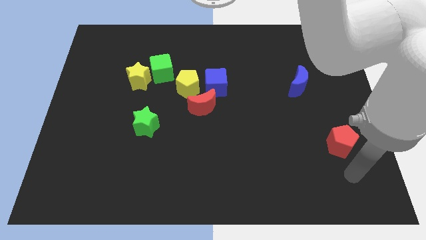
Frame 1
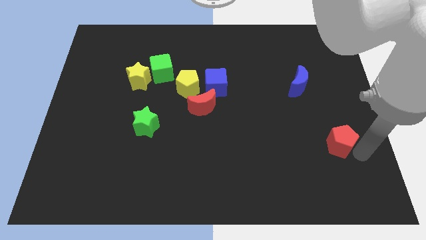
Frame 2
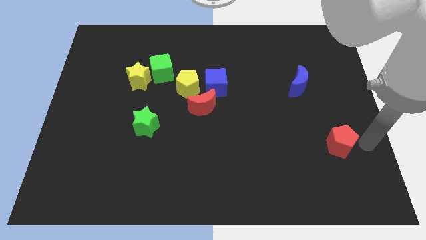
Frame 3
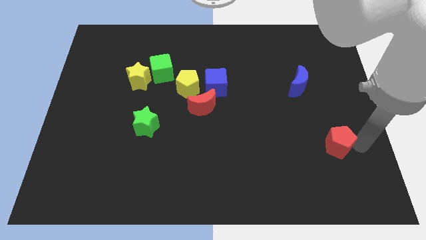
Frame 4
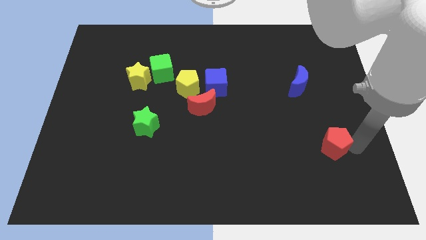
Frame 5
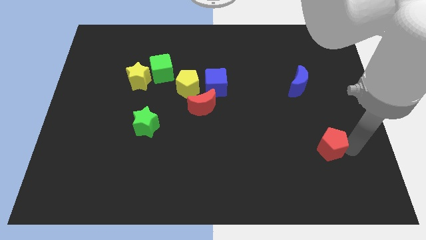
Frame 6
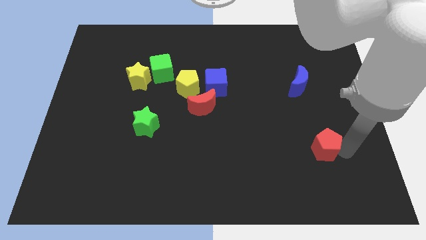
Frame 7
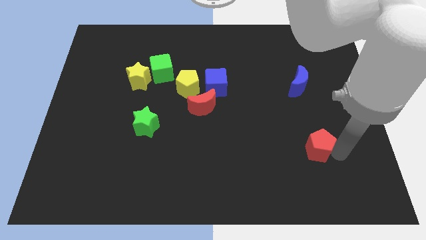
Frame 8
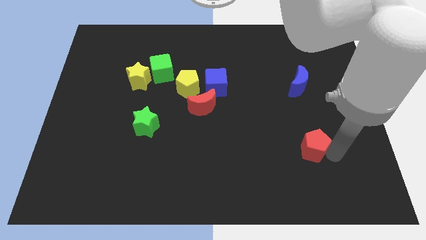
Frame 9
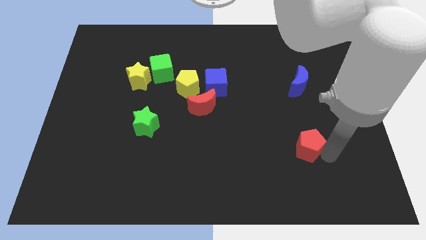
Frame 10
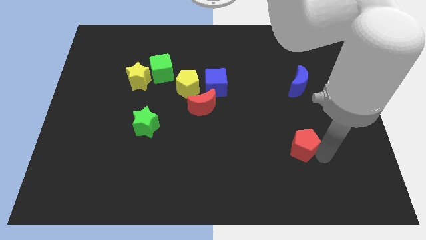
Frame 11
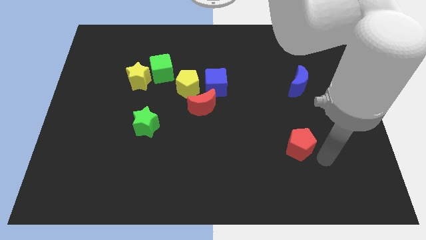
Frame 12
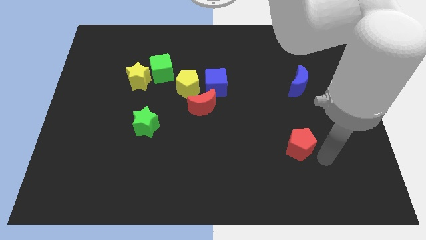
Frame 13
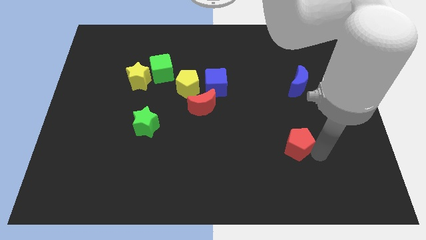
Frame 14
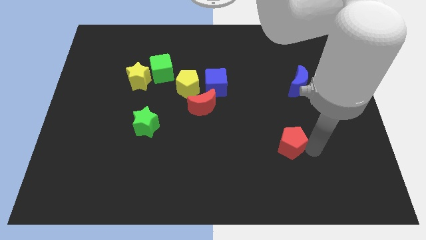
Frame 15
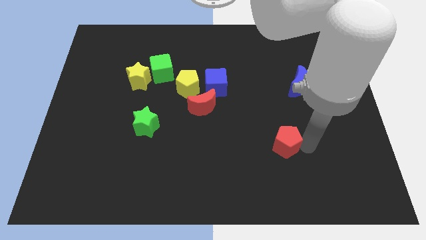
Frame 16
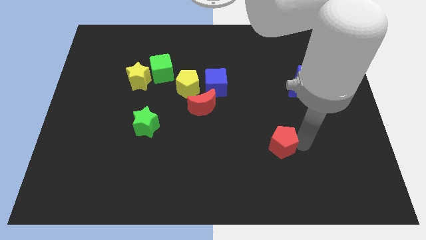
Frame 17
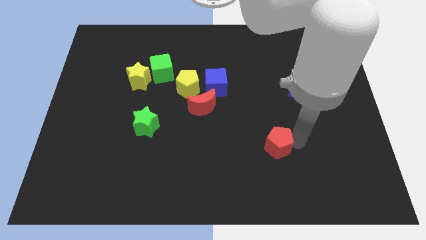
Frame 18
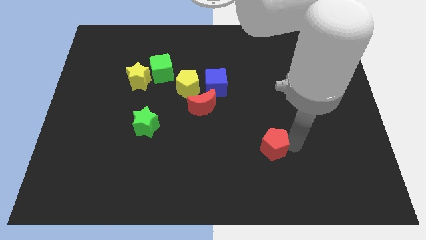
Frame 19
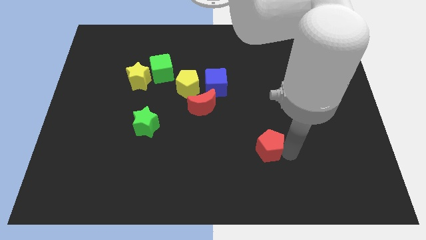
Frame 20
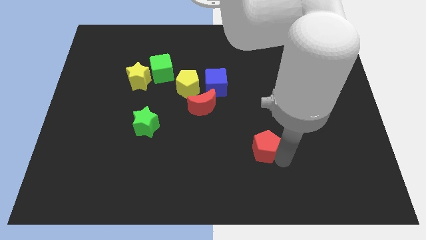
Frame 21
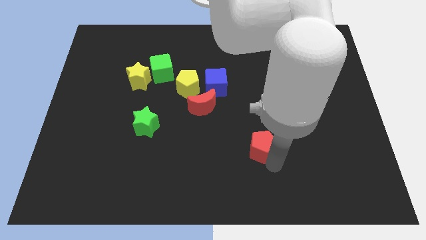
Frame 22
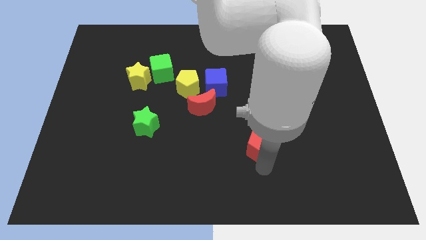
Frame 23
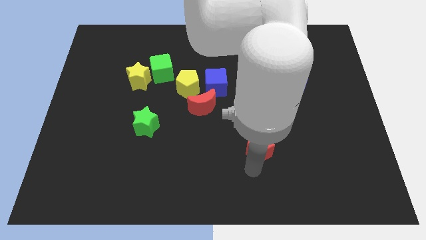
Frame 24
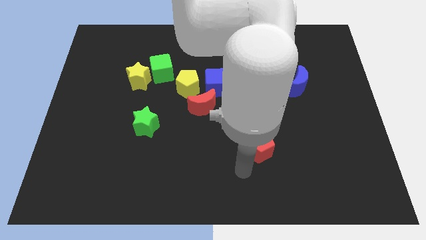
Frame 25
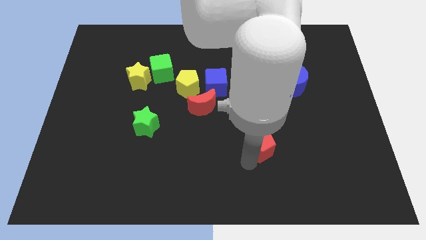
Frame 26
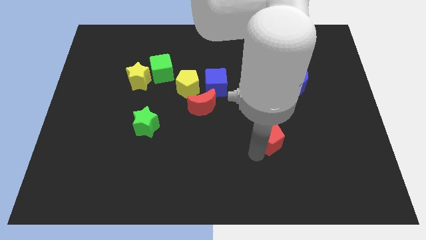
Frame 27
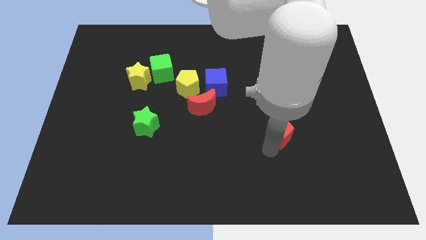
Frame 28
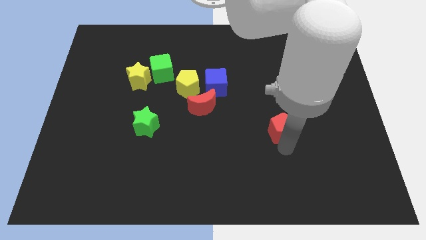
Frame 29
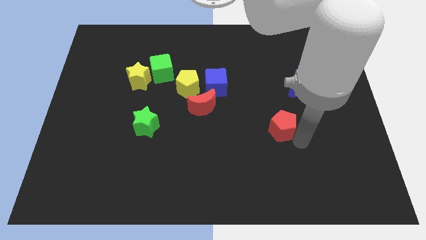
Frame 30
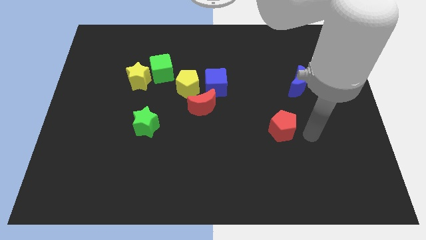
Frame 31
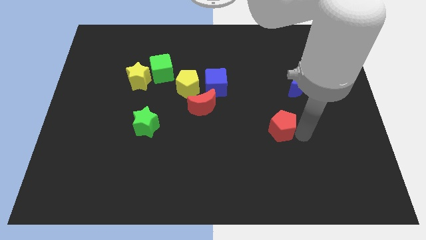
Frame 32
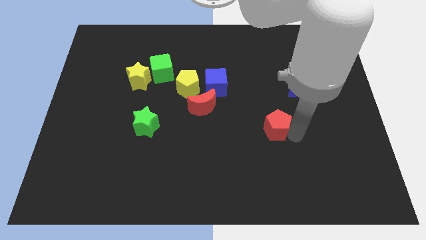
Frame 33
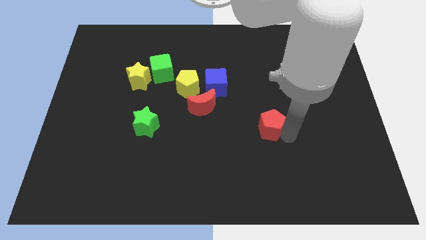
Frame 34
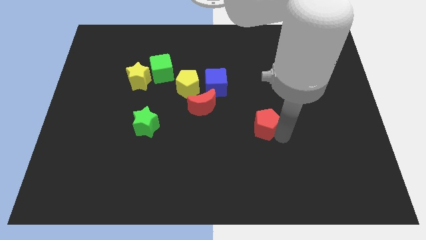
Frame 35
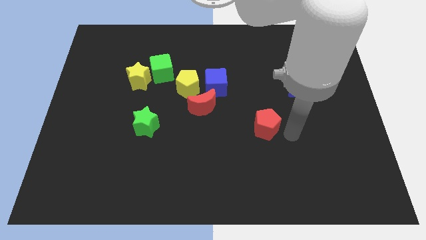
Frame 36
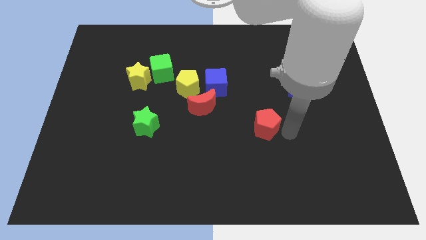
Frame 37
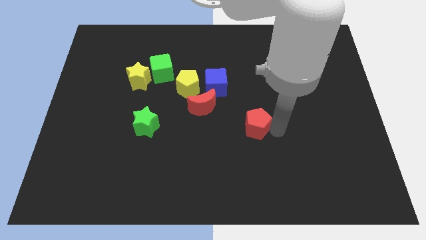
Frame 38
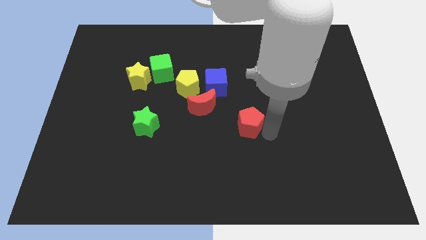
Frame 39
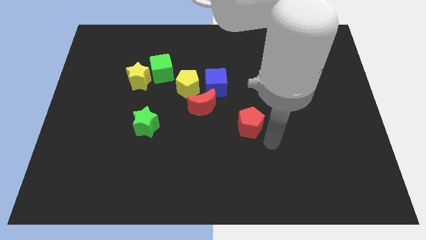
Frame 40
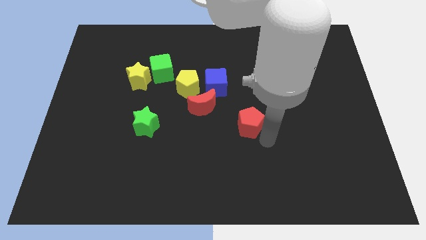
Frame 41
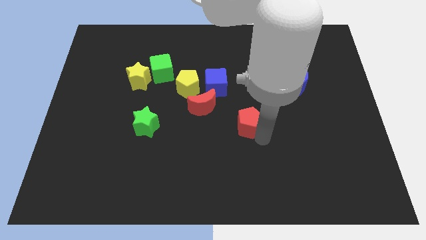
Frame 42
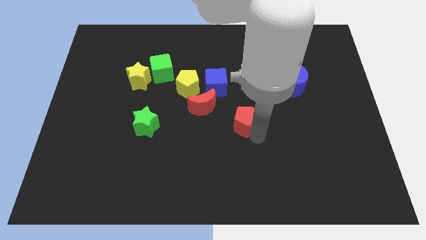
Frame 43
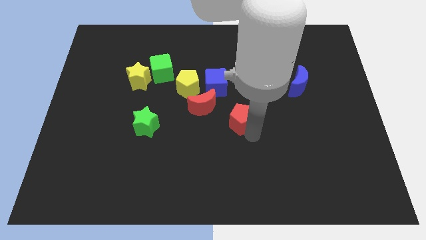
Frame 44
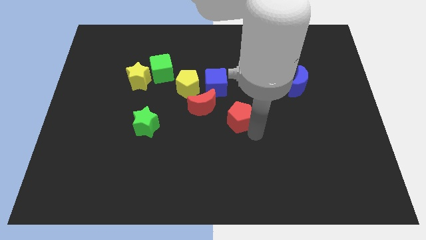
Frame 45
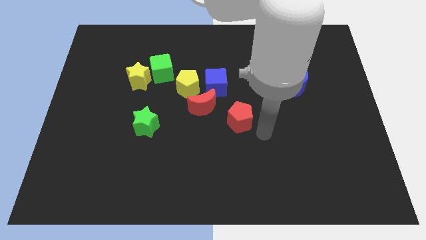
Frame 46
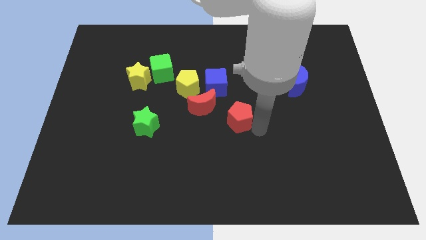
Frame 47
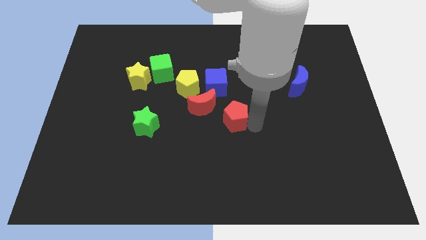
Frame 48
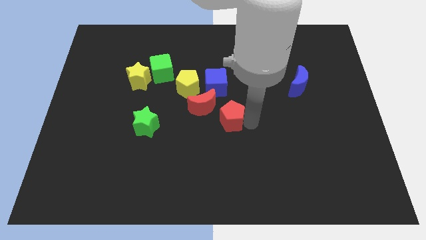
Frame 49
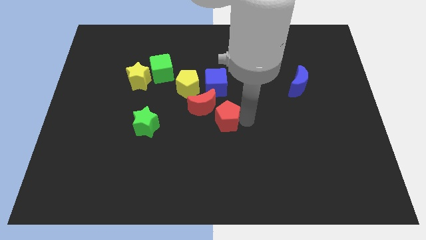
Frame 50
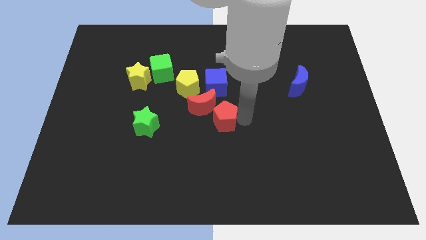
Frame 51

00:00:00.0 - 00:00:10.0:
put the red pentagon next to the red moon

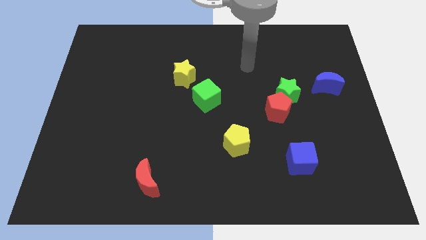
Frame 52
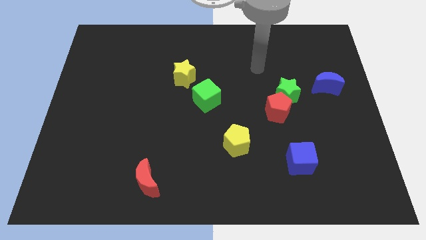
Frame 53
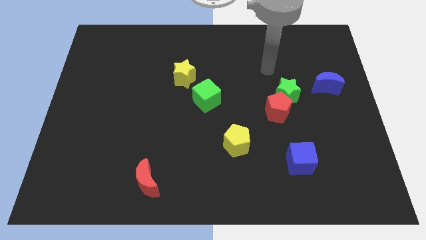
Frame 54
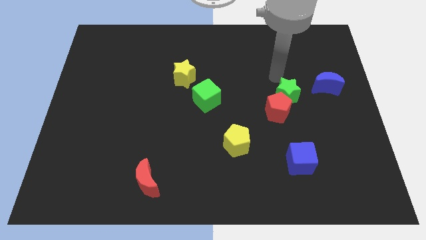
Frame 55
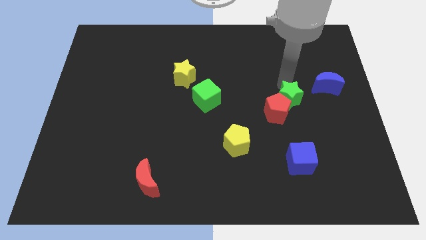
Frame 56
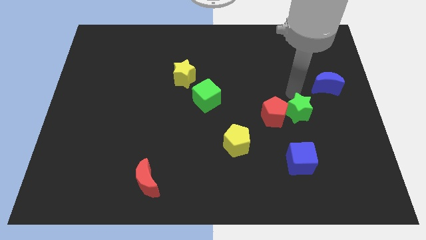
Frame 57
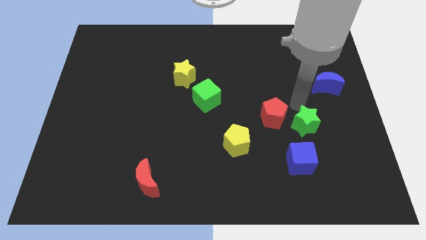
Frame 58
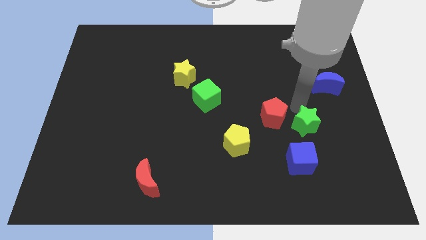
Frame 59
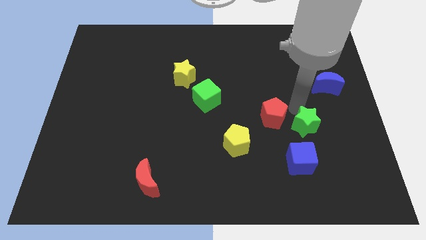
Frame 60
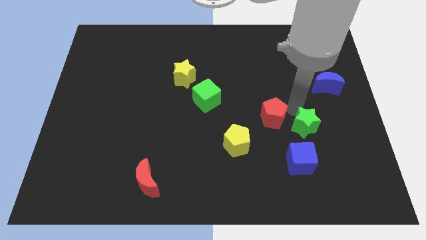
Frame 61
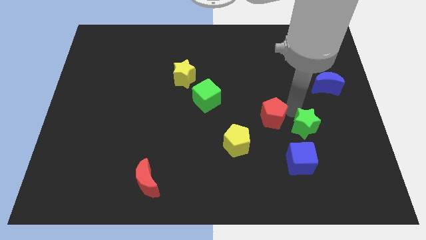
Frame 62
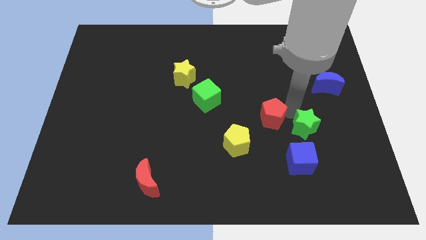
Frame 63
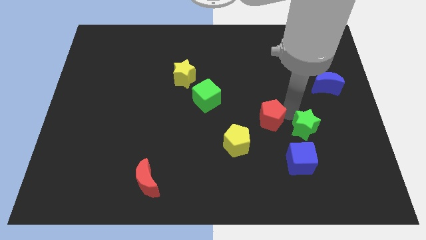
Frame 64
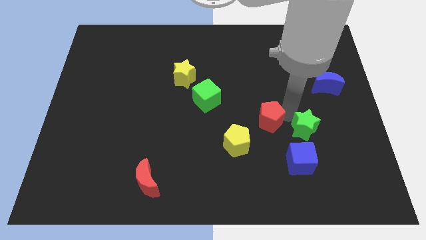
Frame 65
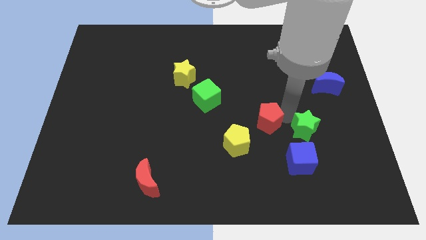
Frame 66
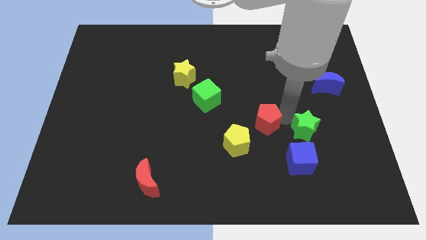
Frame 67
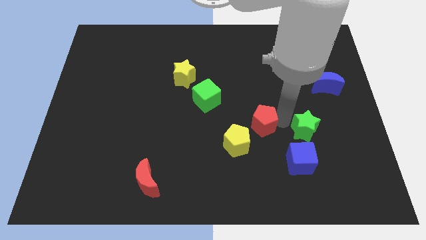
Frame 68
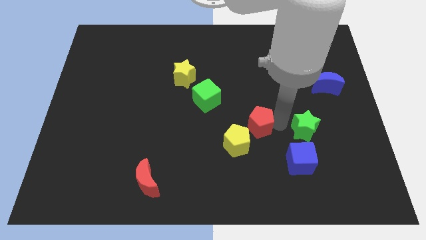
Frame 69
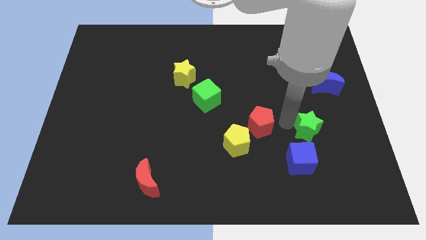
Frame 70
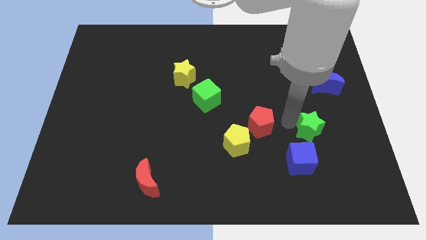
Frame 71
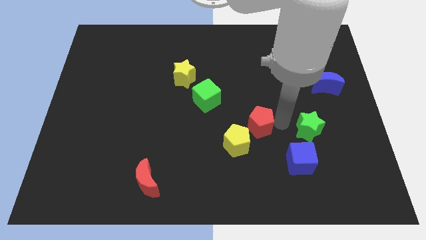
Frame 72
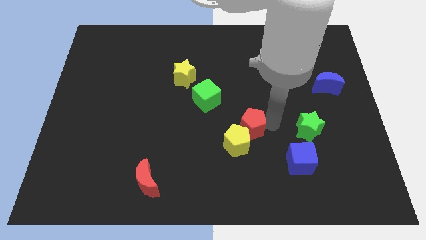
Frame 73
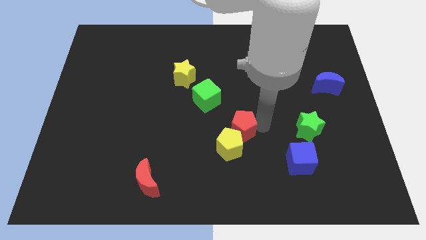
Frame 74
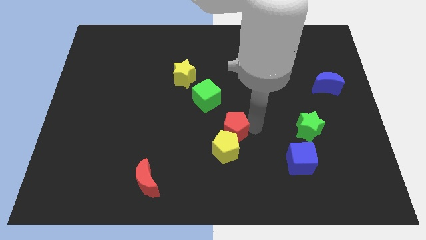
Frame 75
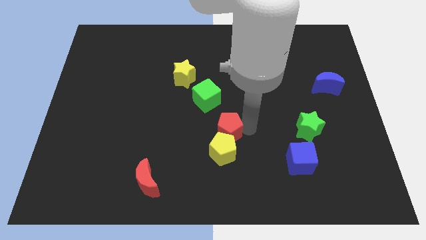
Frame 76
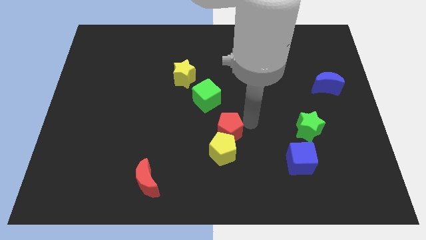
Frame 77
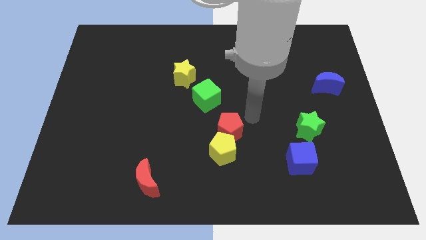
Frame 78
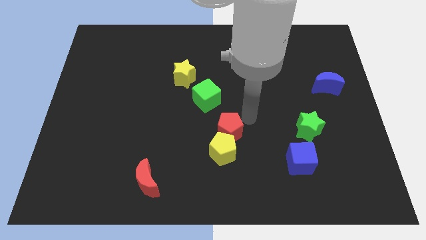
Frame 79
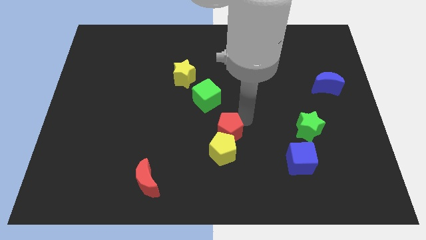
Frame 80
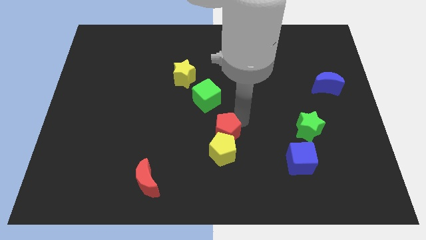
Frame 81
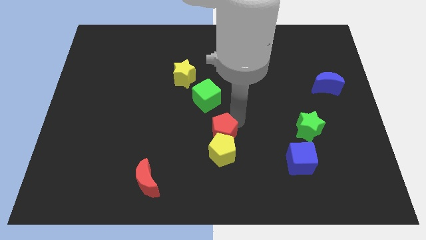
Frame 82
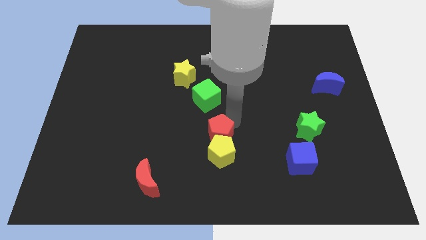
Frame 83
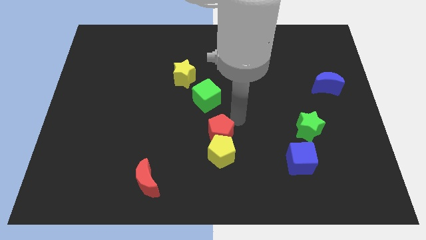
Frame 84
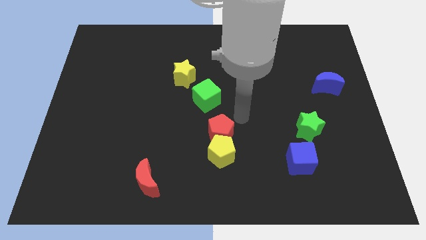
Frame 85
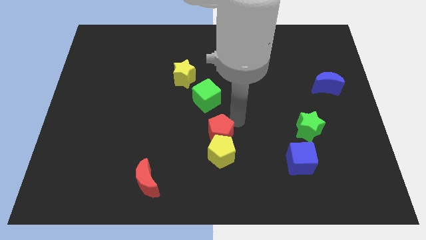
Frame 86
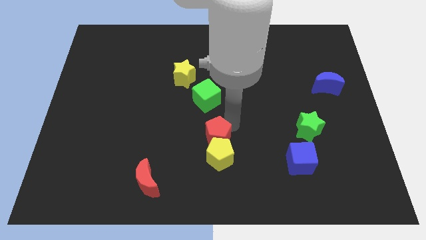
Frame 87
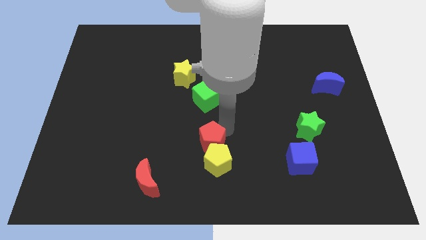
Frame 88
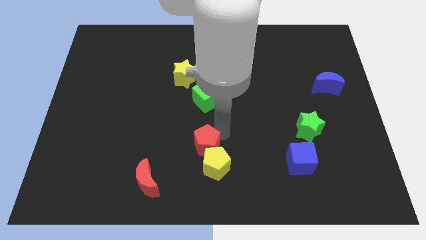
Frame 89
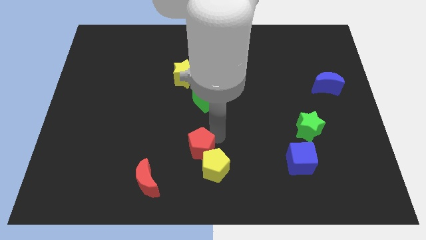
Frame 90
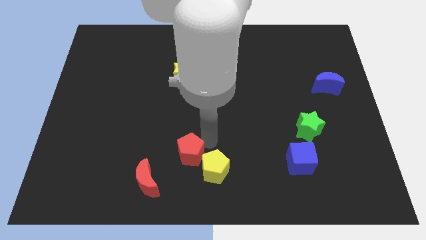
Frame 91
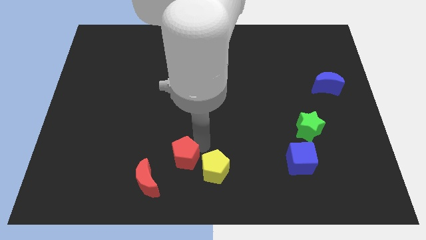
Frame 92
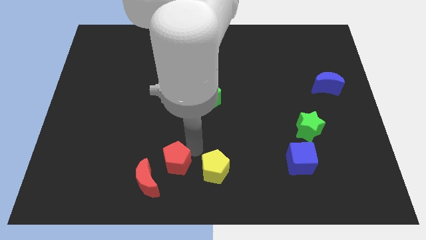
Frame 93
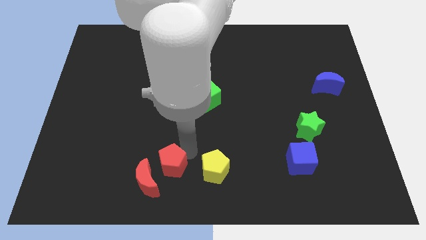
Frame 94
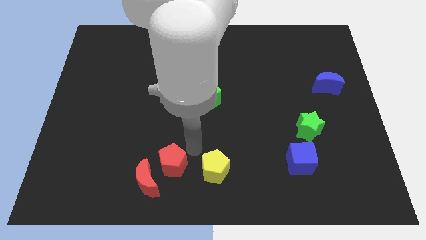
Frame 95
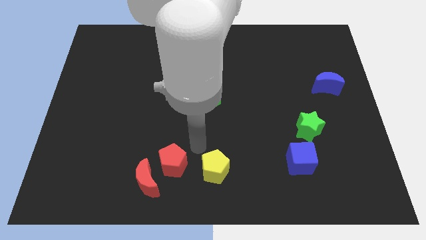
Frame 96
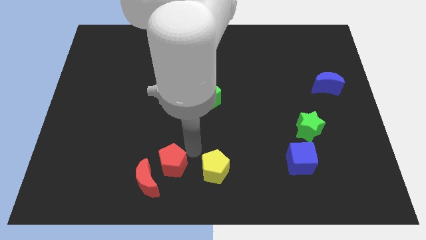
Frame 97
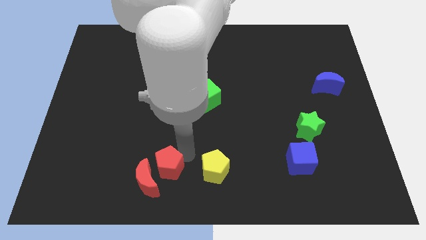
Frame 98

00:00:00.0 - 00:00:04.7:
slide the red pentagon to the red moon
